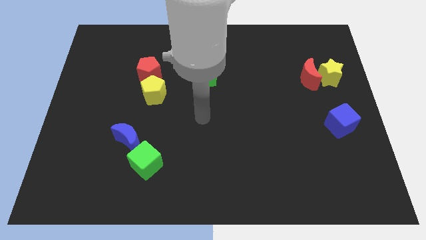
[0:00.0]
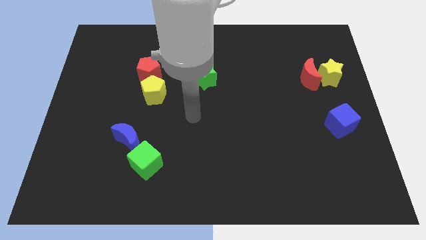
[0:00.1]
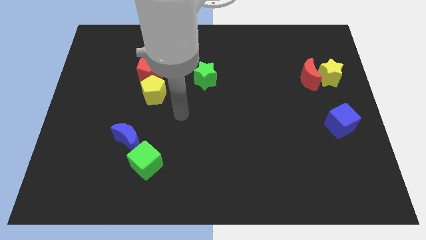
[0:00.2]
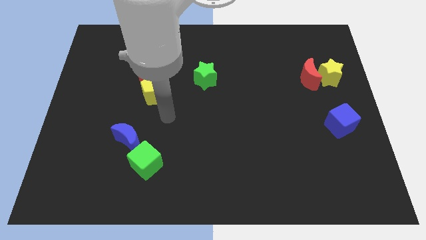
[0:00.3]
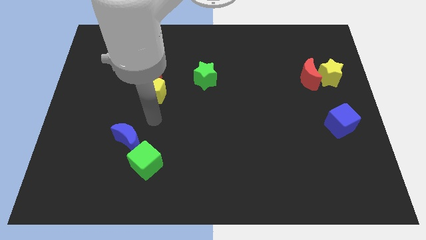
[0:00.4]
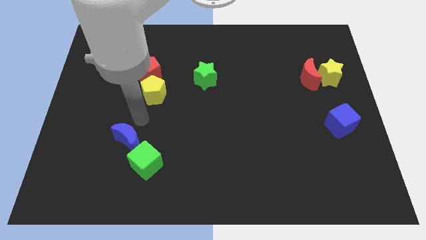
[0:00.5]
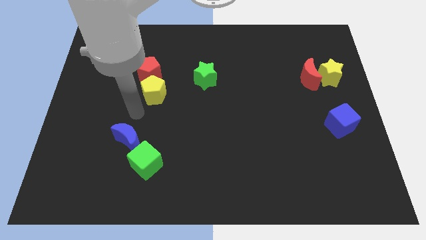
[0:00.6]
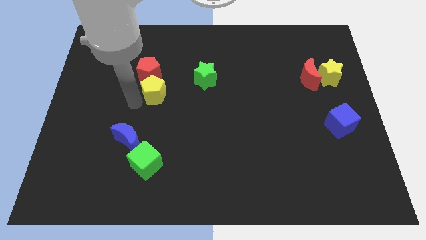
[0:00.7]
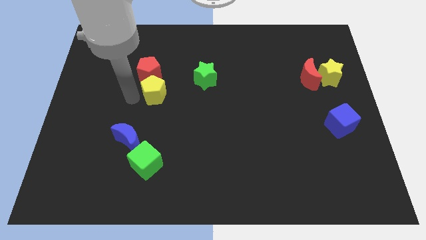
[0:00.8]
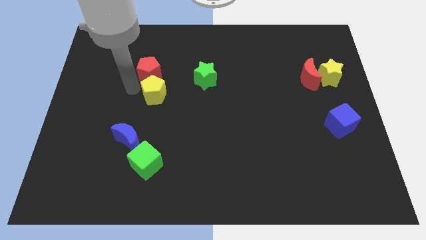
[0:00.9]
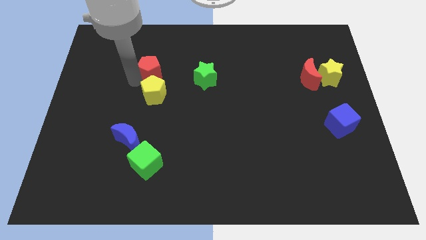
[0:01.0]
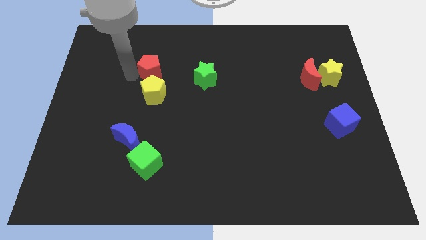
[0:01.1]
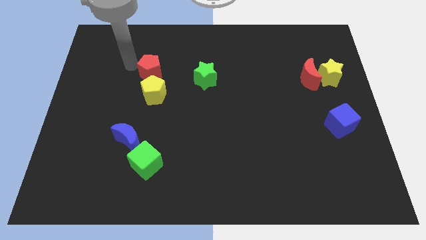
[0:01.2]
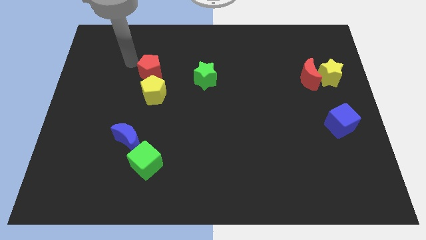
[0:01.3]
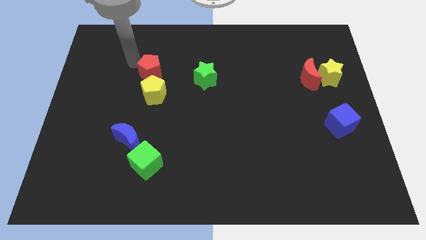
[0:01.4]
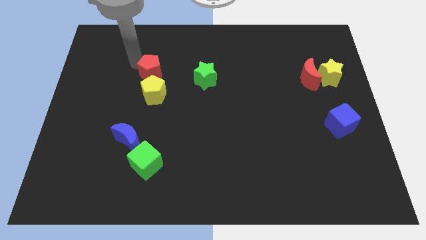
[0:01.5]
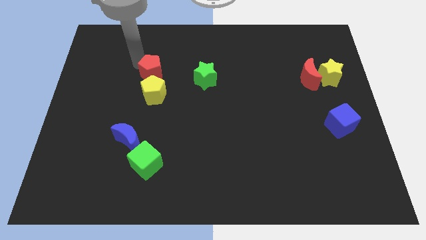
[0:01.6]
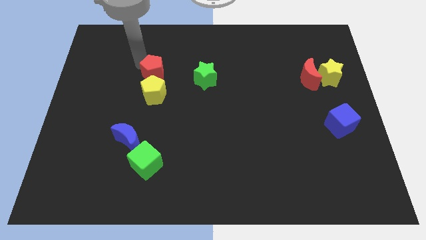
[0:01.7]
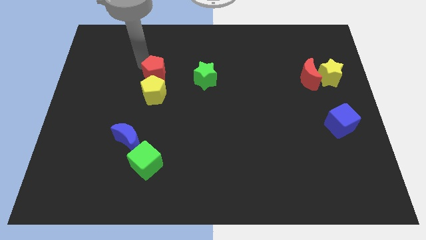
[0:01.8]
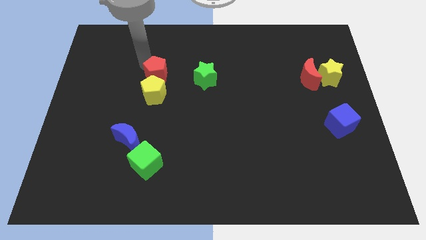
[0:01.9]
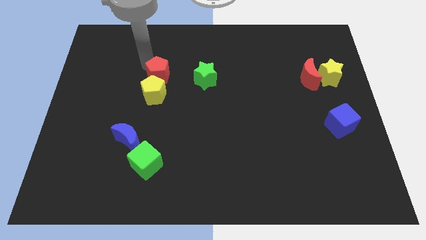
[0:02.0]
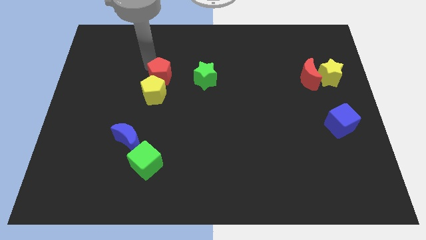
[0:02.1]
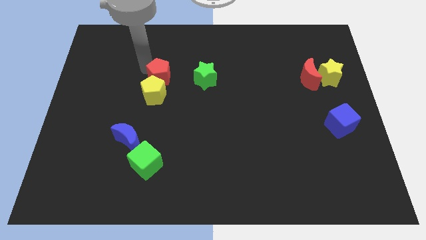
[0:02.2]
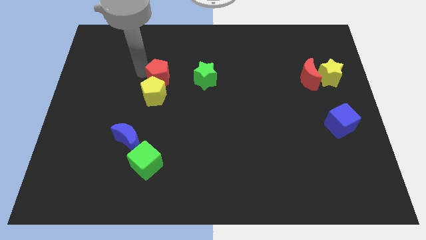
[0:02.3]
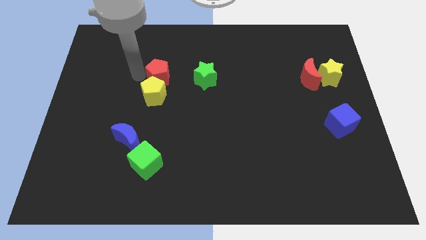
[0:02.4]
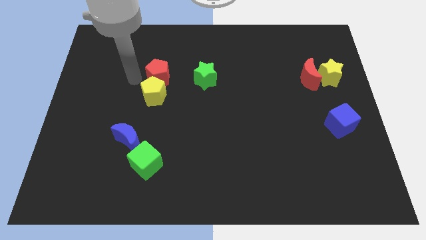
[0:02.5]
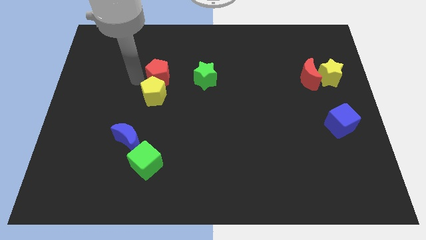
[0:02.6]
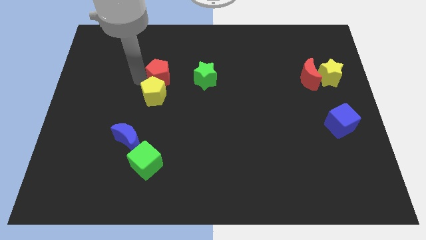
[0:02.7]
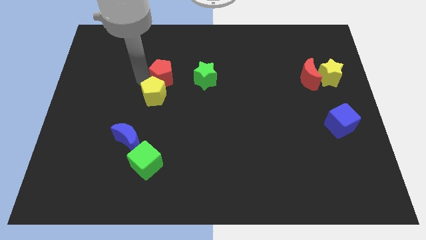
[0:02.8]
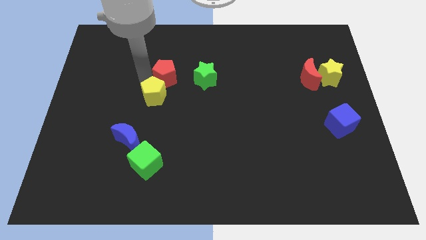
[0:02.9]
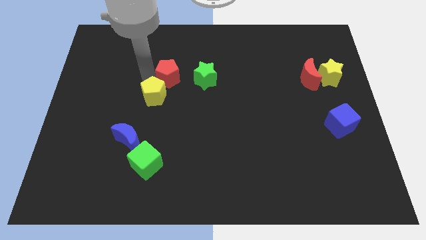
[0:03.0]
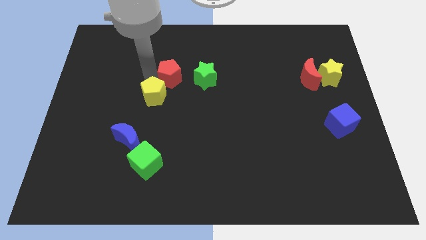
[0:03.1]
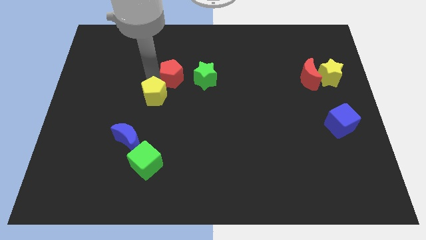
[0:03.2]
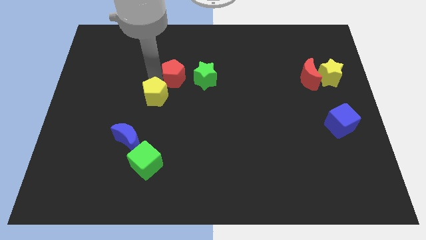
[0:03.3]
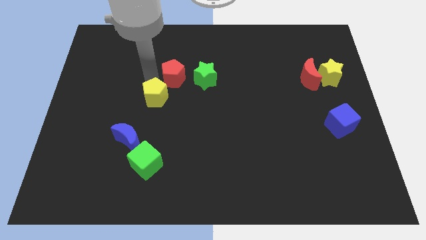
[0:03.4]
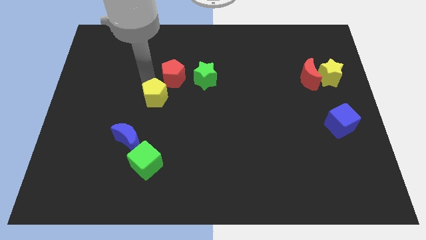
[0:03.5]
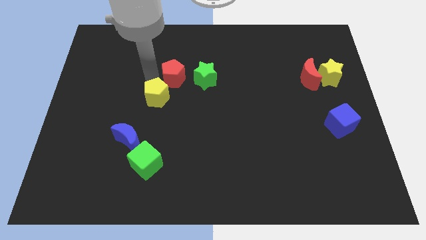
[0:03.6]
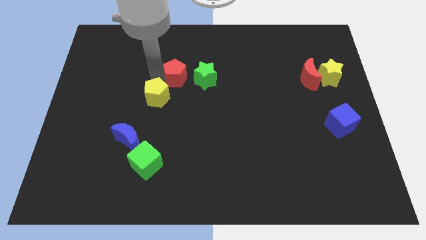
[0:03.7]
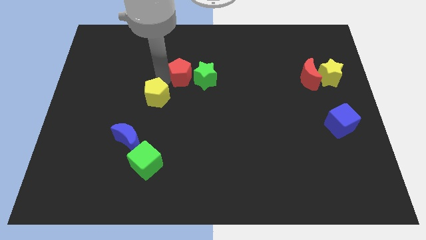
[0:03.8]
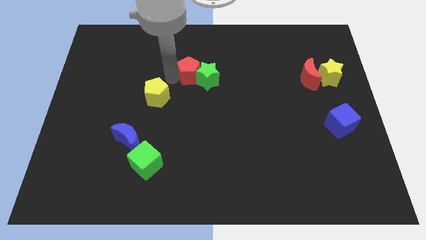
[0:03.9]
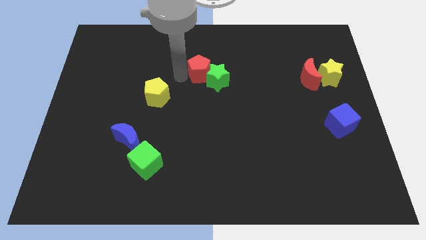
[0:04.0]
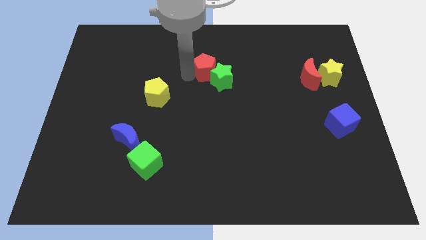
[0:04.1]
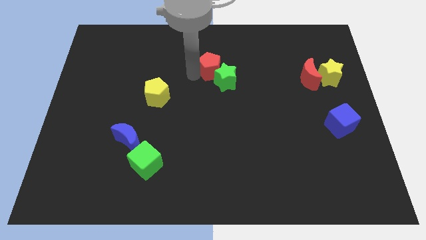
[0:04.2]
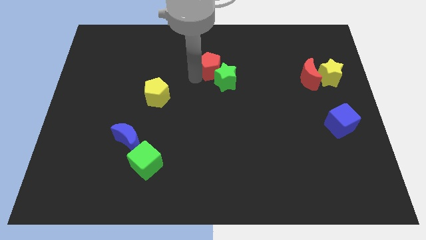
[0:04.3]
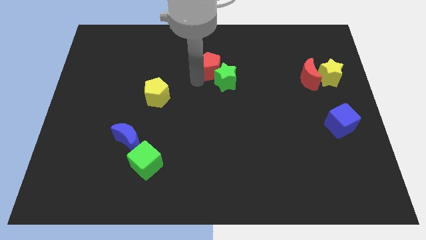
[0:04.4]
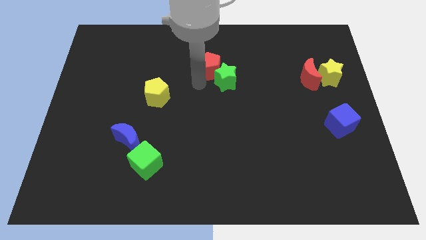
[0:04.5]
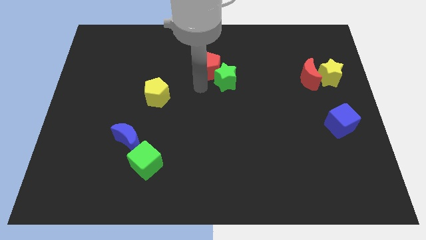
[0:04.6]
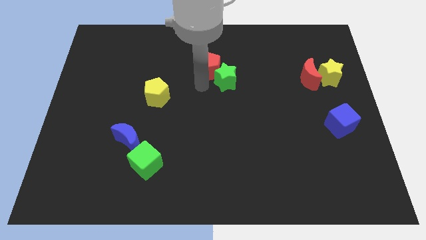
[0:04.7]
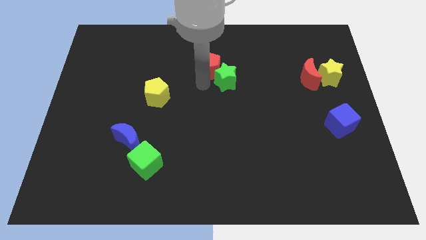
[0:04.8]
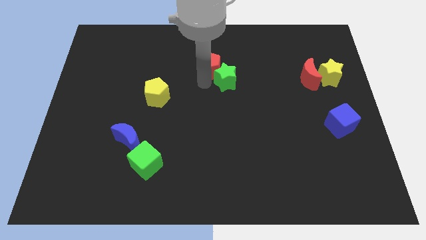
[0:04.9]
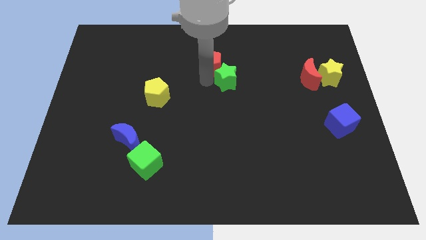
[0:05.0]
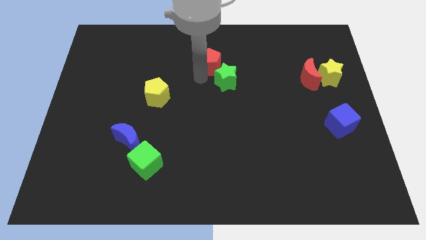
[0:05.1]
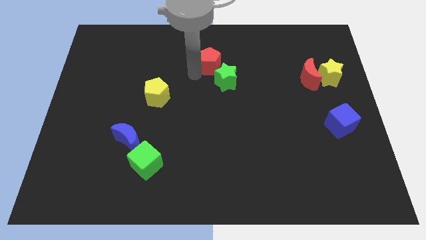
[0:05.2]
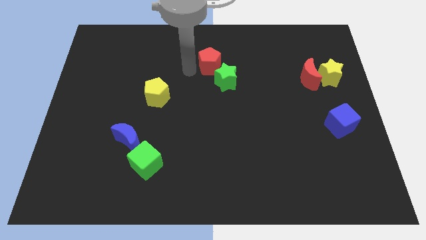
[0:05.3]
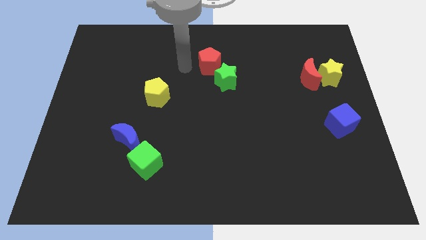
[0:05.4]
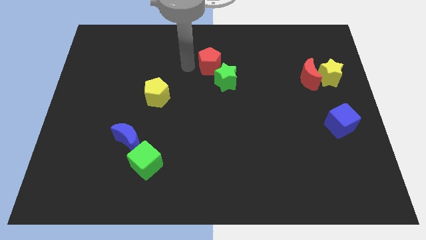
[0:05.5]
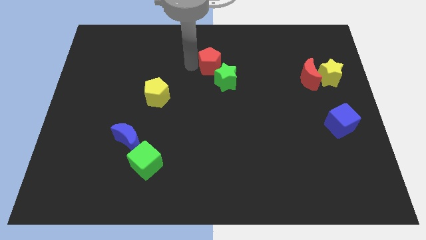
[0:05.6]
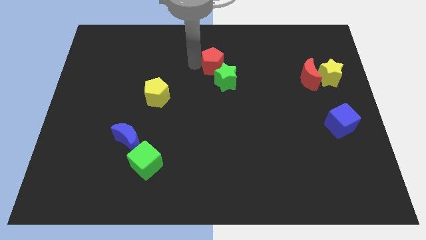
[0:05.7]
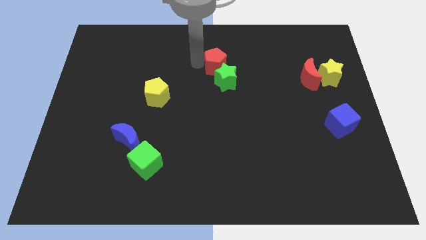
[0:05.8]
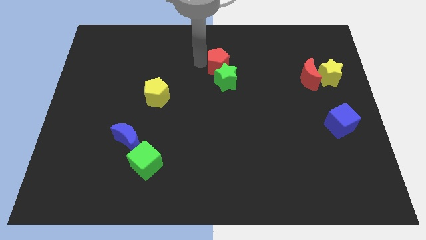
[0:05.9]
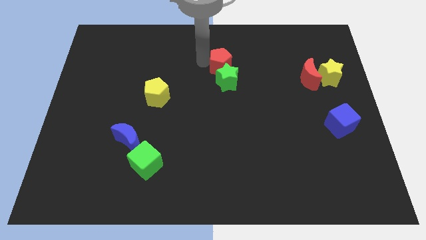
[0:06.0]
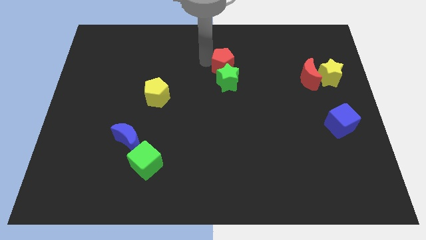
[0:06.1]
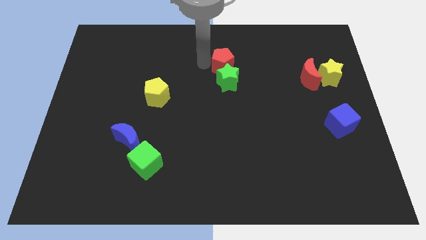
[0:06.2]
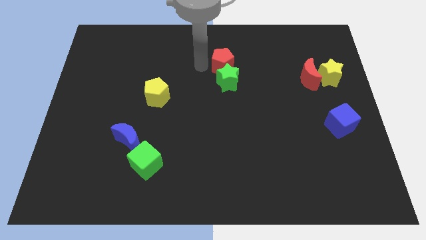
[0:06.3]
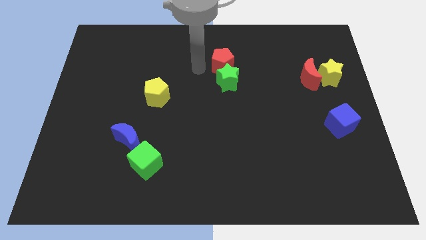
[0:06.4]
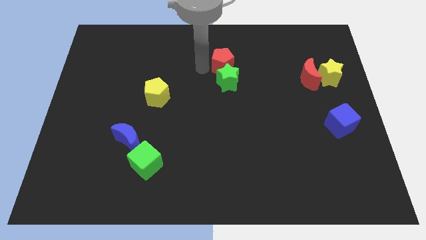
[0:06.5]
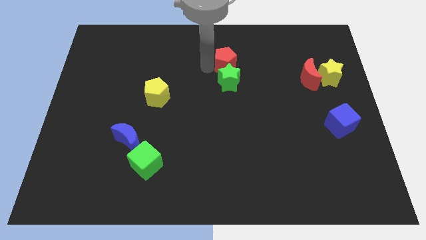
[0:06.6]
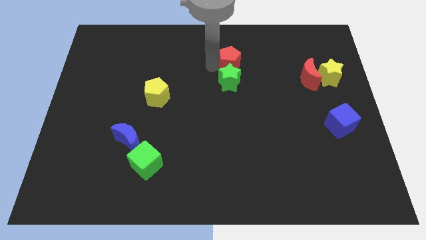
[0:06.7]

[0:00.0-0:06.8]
push the red pentagon right

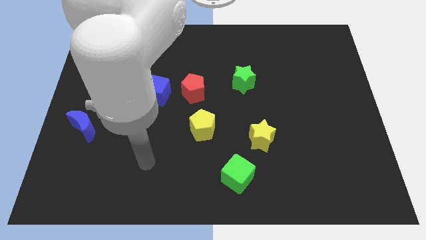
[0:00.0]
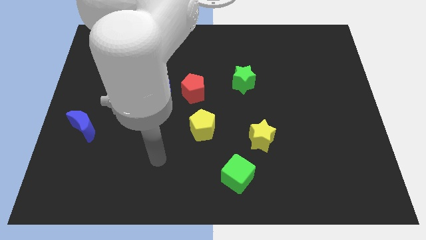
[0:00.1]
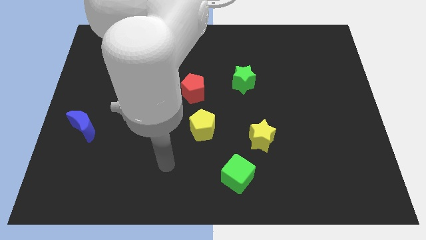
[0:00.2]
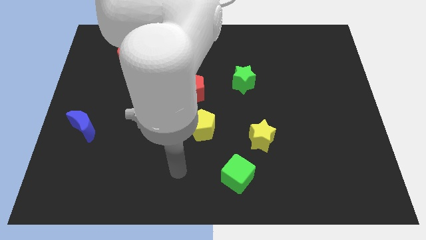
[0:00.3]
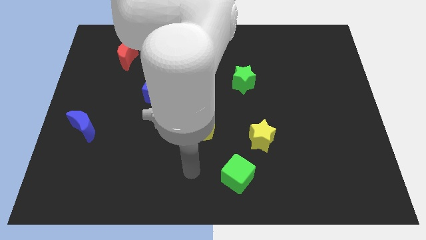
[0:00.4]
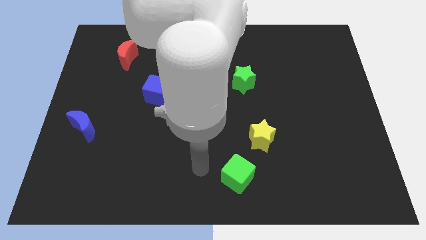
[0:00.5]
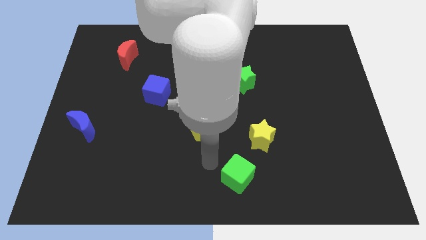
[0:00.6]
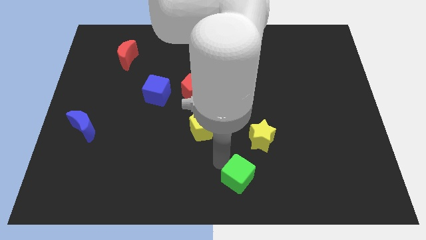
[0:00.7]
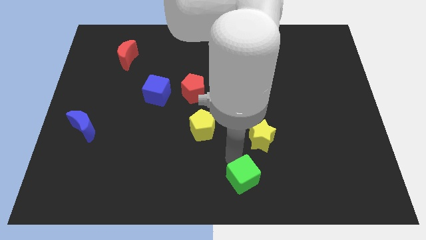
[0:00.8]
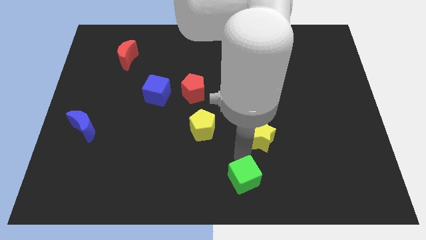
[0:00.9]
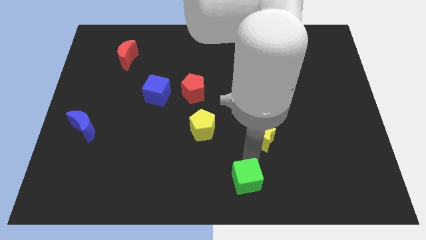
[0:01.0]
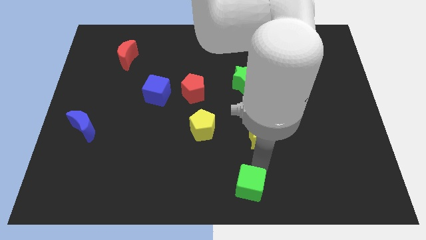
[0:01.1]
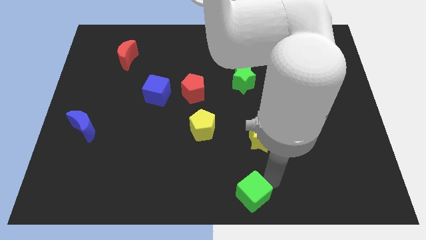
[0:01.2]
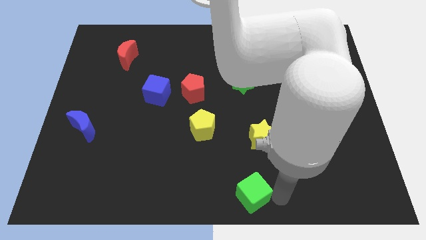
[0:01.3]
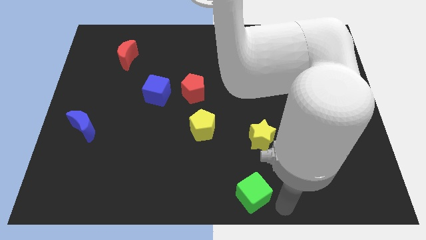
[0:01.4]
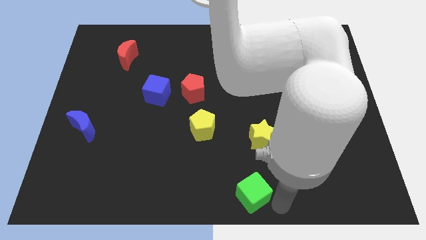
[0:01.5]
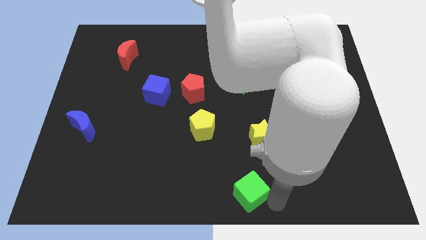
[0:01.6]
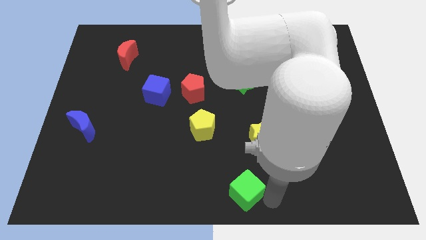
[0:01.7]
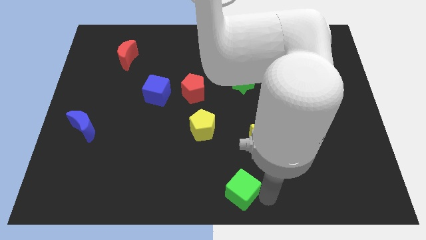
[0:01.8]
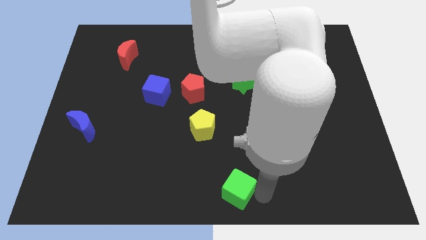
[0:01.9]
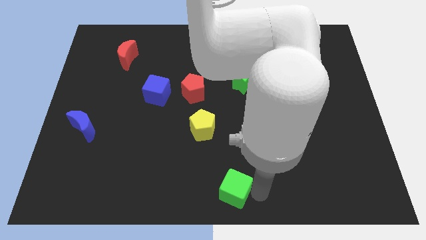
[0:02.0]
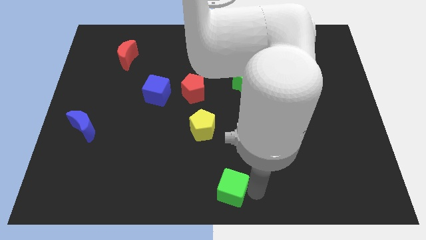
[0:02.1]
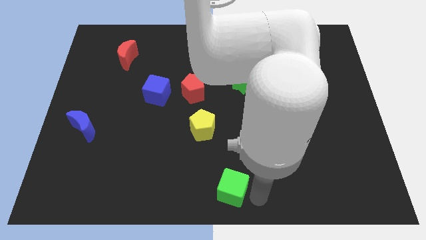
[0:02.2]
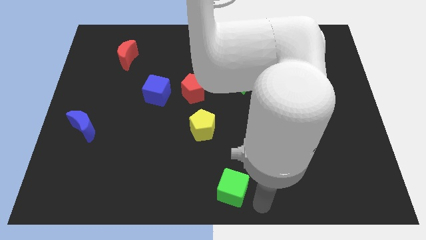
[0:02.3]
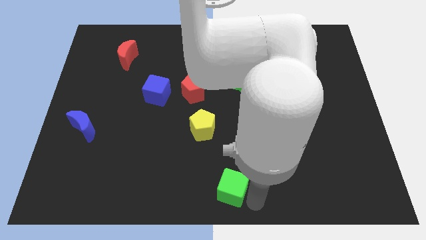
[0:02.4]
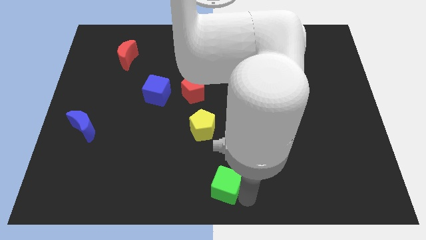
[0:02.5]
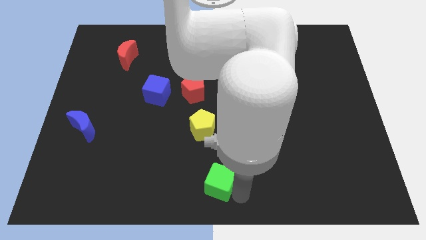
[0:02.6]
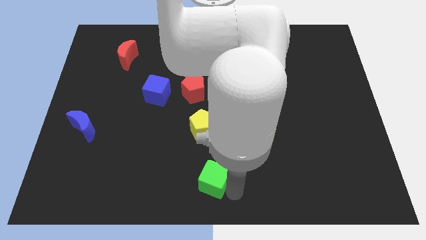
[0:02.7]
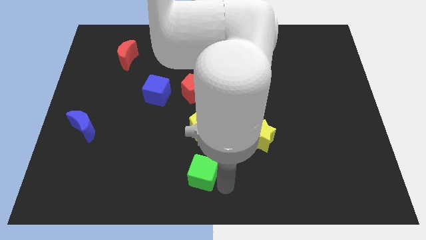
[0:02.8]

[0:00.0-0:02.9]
slightly slide the green cube left
